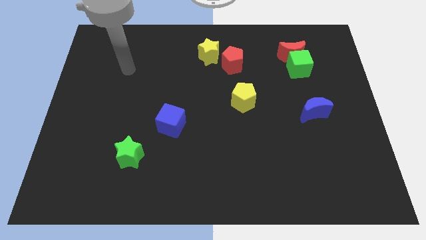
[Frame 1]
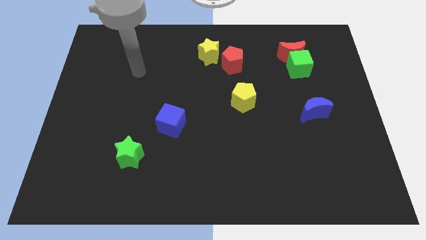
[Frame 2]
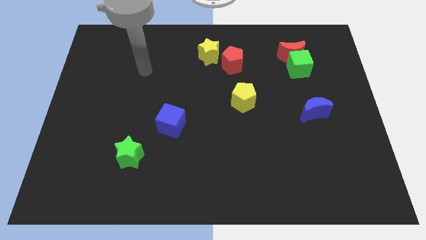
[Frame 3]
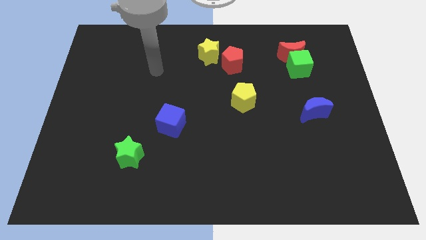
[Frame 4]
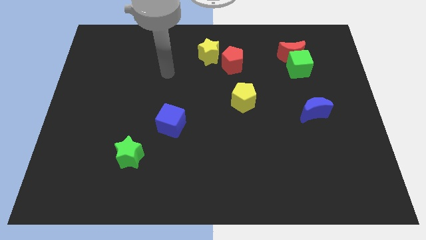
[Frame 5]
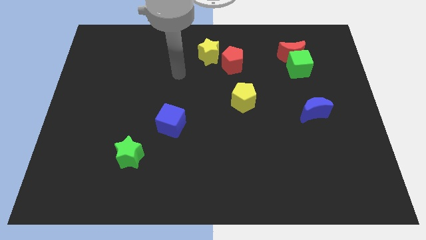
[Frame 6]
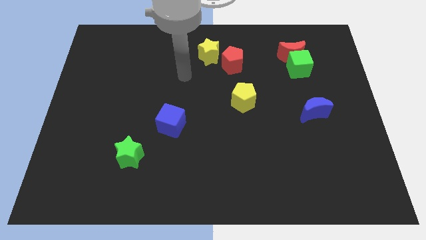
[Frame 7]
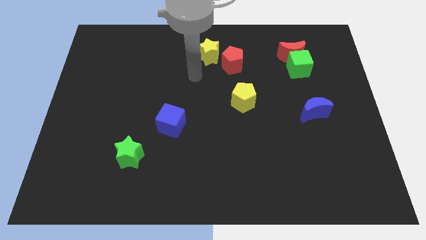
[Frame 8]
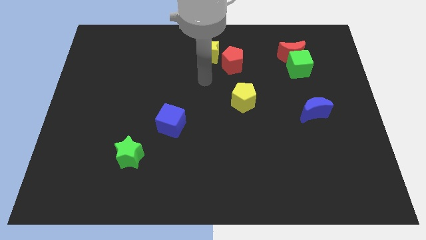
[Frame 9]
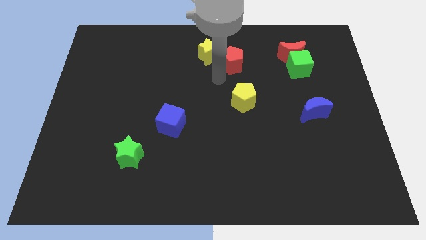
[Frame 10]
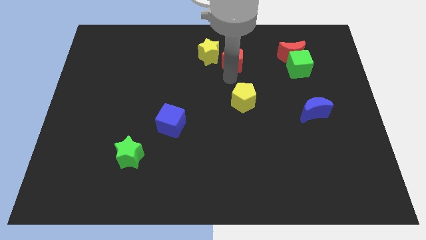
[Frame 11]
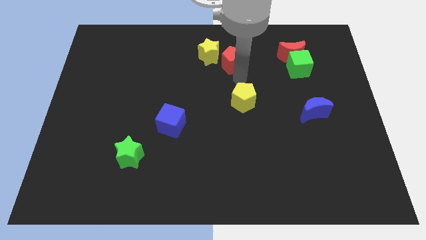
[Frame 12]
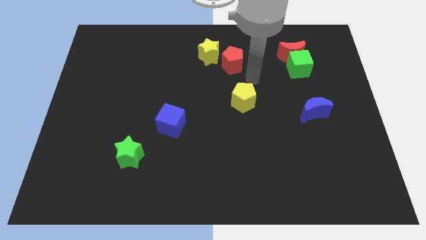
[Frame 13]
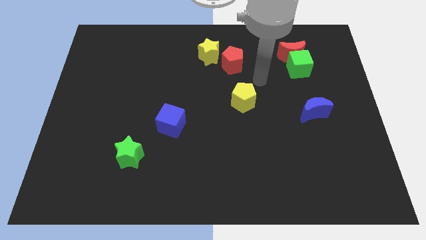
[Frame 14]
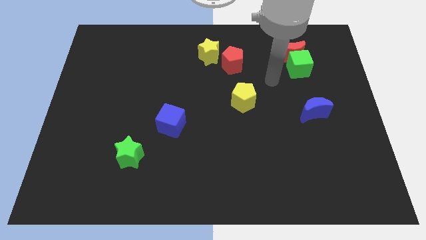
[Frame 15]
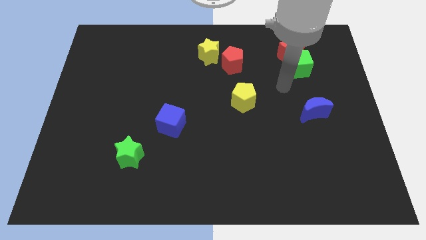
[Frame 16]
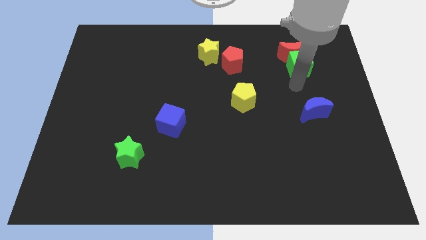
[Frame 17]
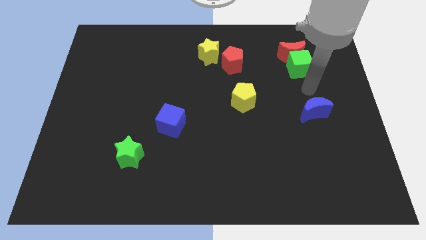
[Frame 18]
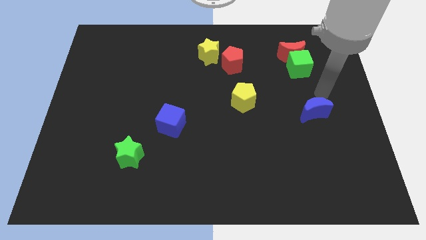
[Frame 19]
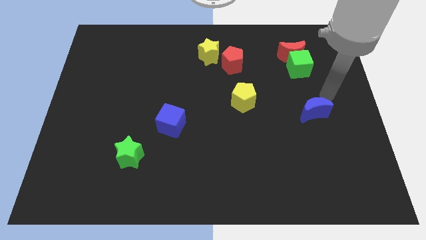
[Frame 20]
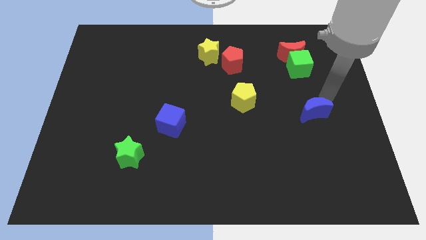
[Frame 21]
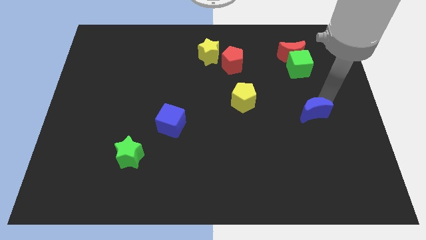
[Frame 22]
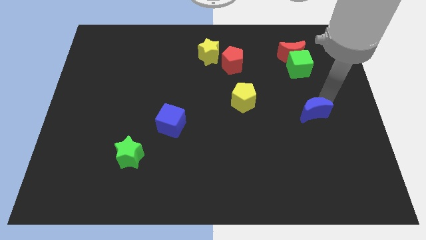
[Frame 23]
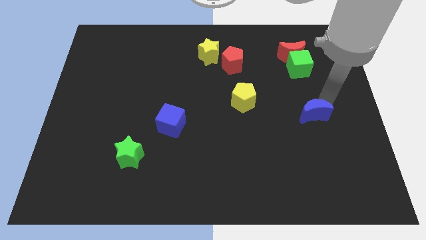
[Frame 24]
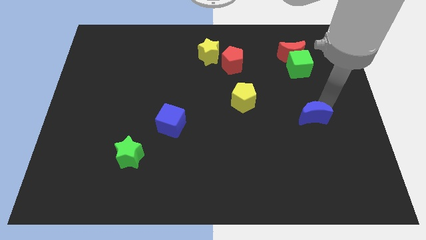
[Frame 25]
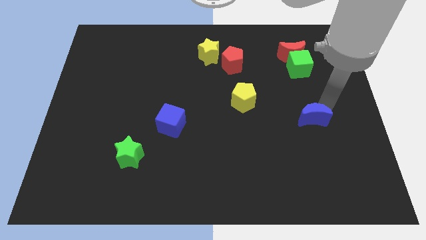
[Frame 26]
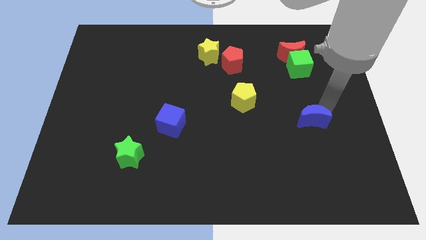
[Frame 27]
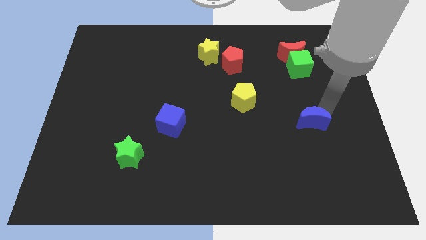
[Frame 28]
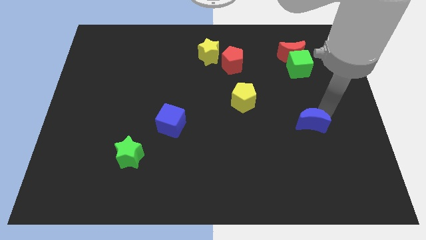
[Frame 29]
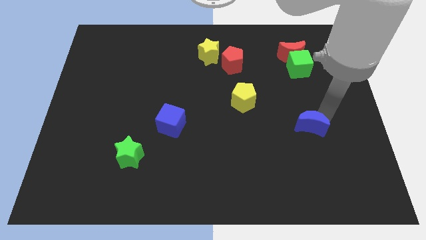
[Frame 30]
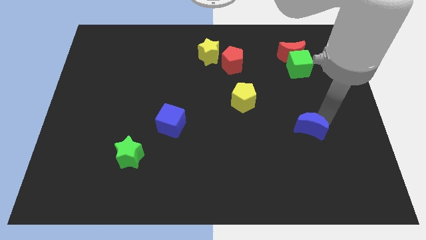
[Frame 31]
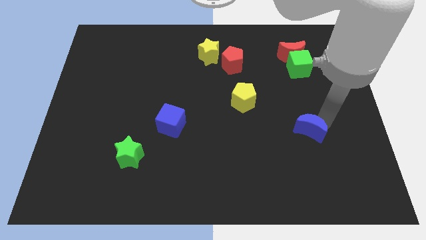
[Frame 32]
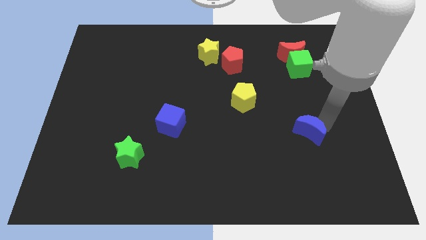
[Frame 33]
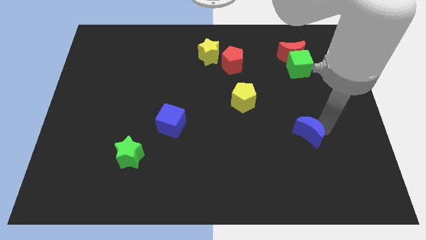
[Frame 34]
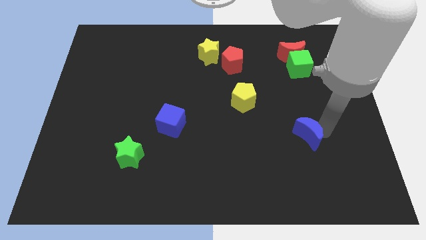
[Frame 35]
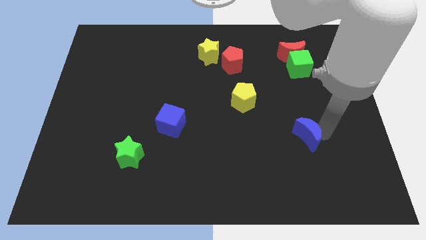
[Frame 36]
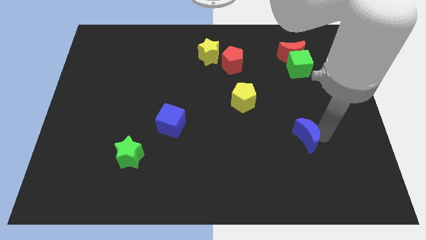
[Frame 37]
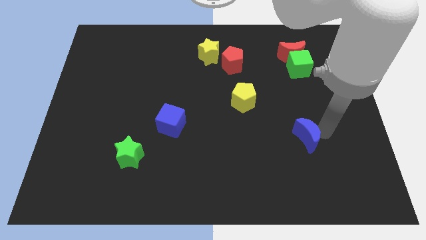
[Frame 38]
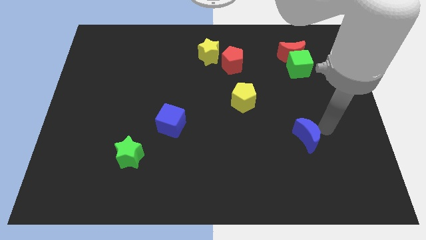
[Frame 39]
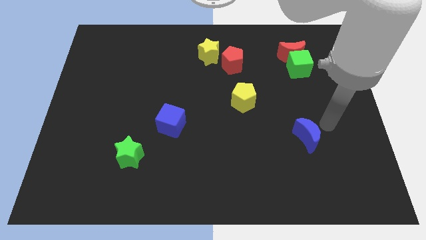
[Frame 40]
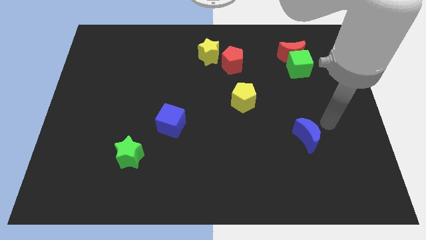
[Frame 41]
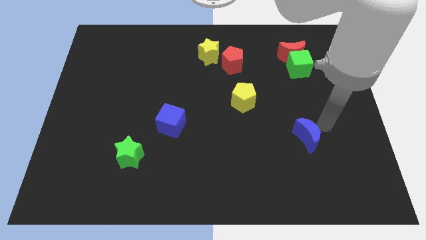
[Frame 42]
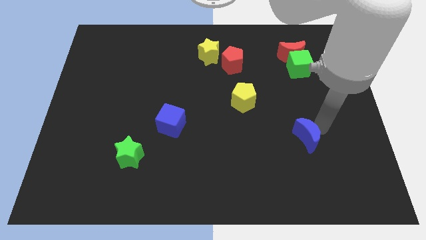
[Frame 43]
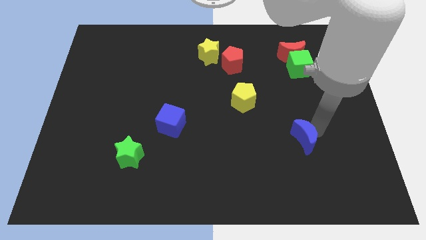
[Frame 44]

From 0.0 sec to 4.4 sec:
move the blue moon diagonally downwards and left a little bit

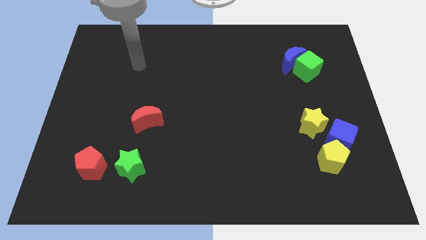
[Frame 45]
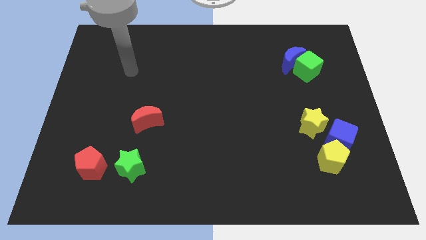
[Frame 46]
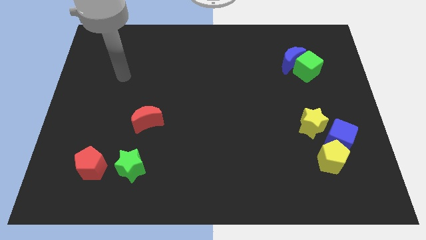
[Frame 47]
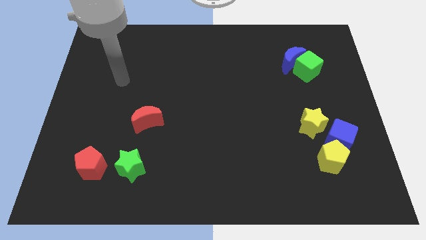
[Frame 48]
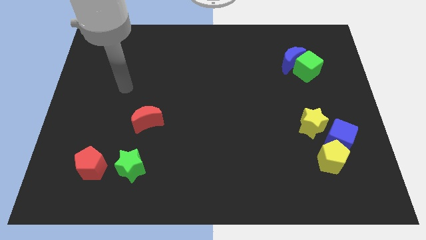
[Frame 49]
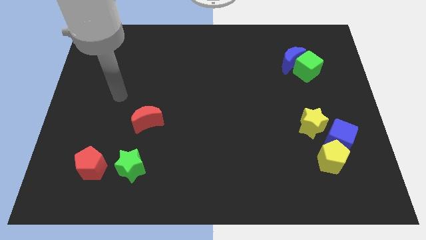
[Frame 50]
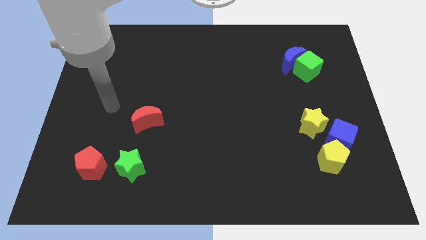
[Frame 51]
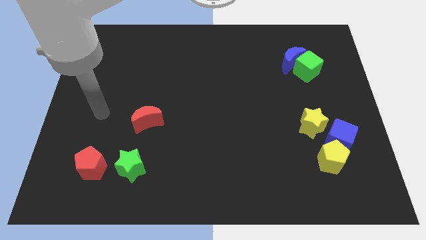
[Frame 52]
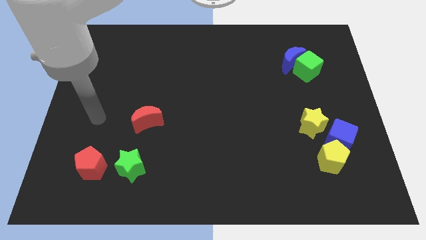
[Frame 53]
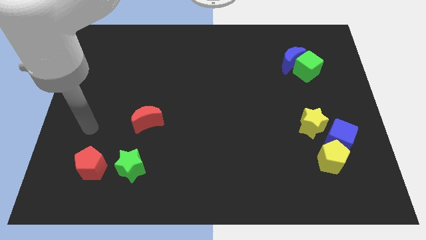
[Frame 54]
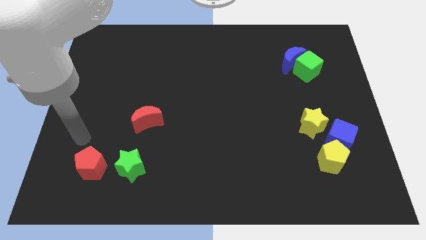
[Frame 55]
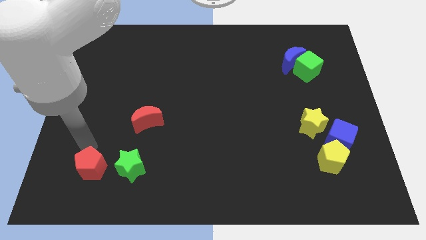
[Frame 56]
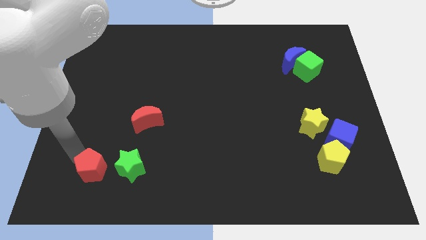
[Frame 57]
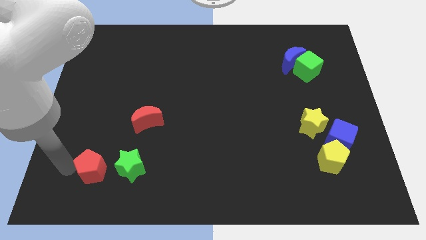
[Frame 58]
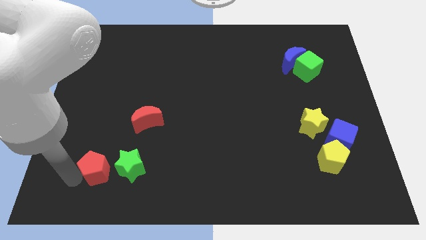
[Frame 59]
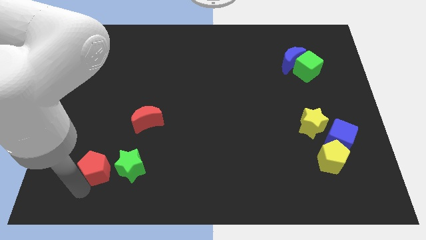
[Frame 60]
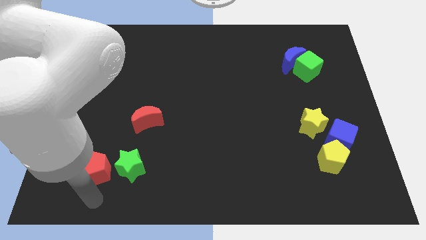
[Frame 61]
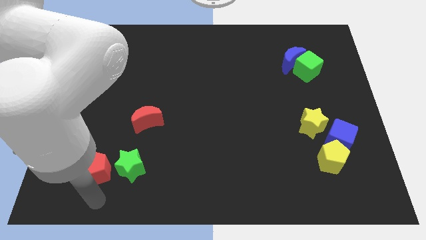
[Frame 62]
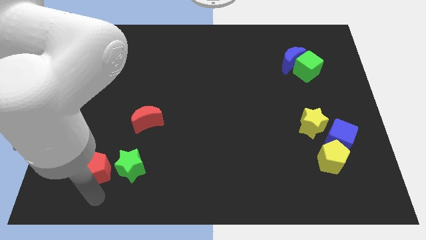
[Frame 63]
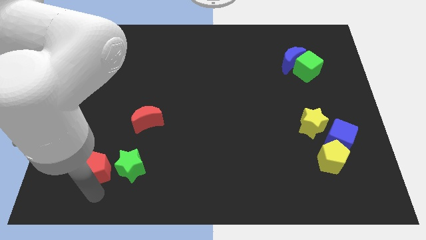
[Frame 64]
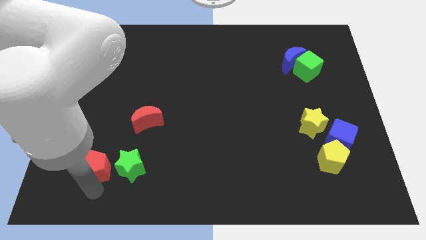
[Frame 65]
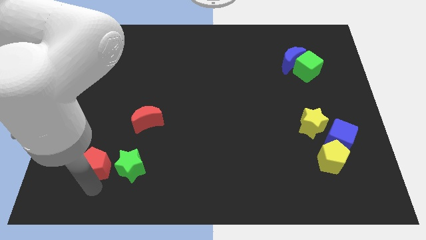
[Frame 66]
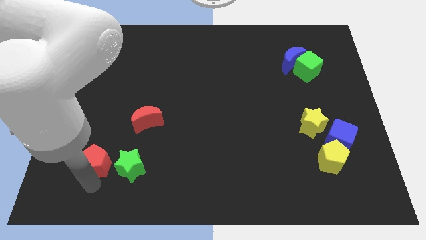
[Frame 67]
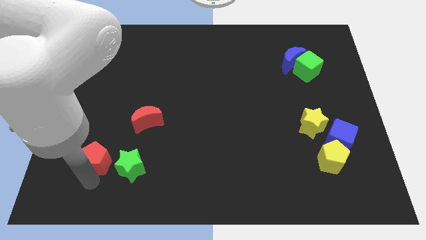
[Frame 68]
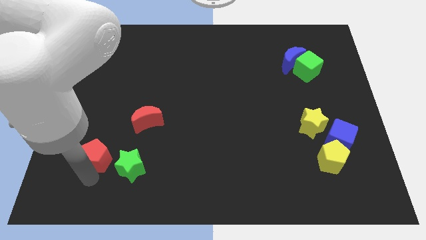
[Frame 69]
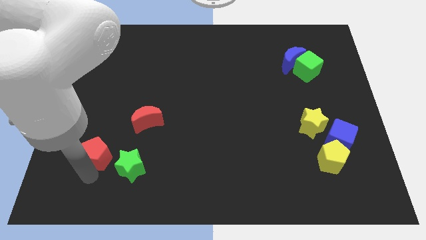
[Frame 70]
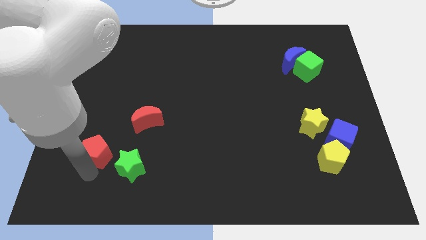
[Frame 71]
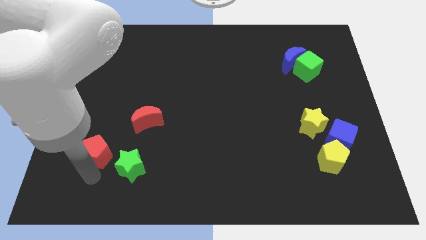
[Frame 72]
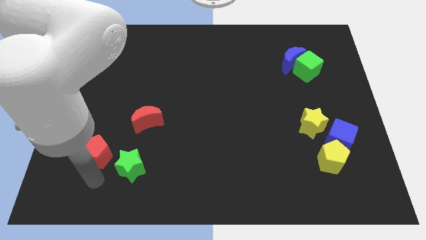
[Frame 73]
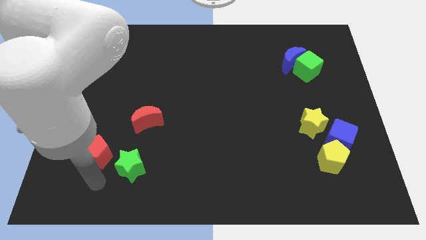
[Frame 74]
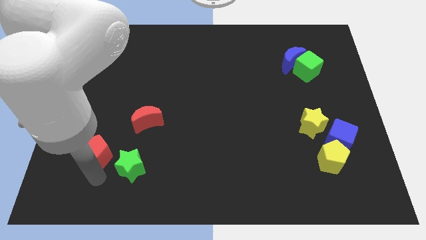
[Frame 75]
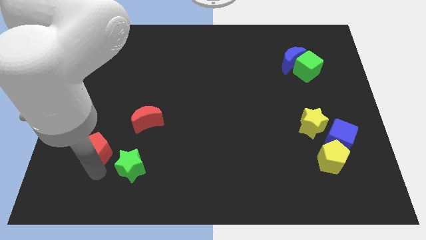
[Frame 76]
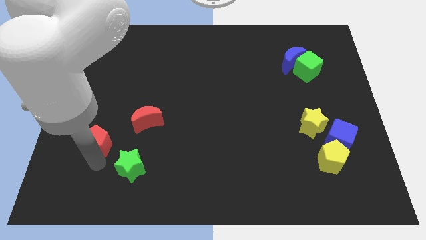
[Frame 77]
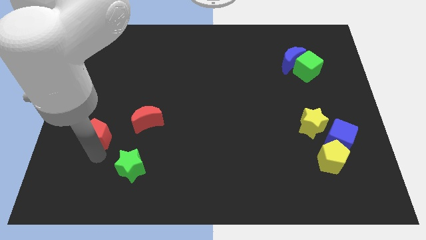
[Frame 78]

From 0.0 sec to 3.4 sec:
slide the red pentagon upwards a little bit

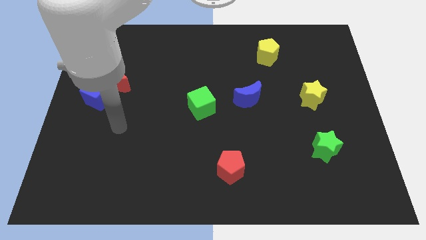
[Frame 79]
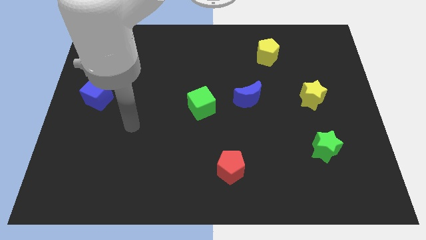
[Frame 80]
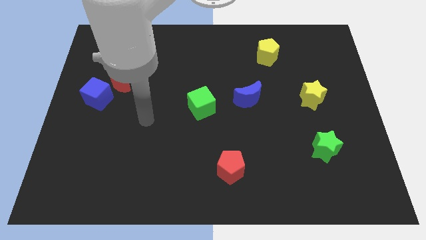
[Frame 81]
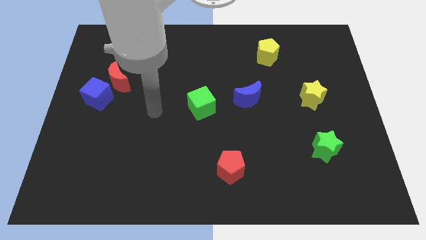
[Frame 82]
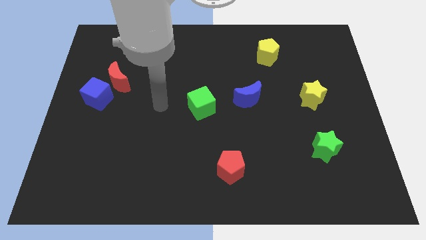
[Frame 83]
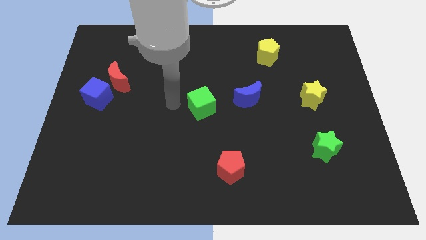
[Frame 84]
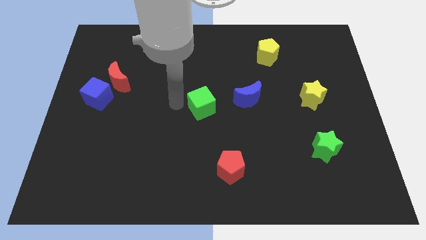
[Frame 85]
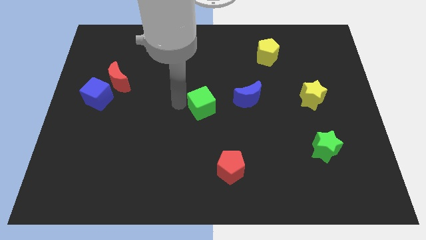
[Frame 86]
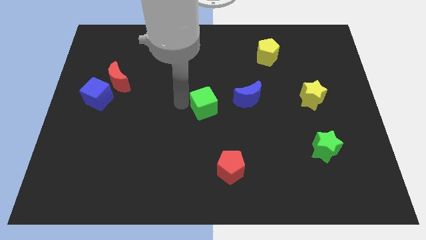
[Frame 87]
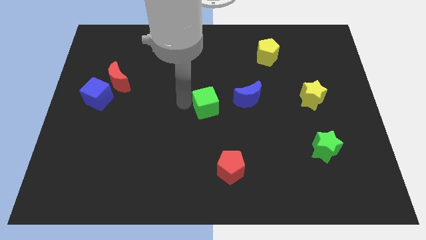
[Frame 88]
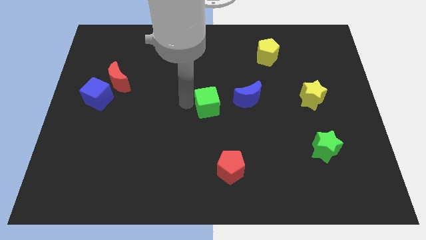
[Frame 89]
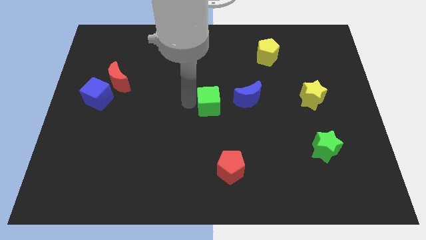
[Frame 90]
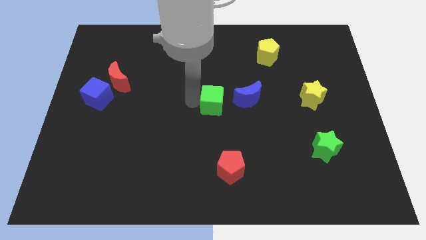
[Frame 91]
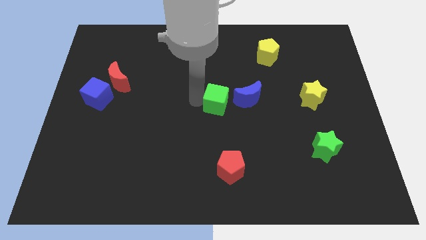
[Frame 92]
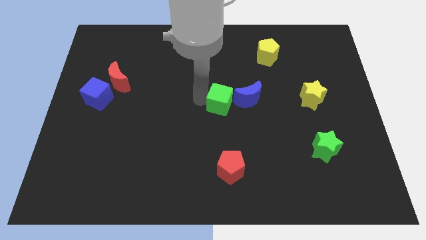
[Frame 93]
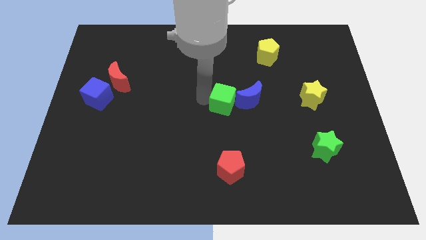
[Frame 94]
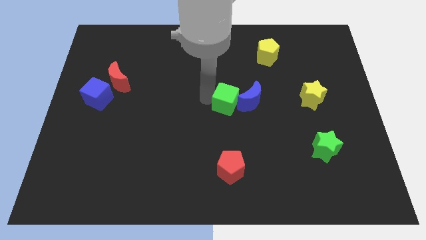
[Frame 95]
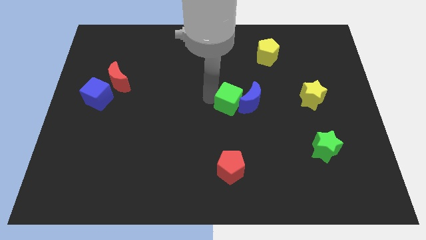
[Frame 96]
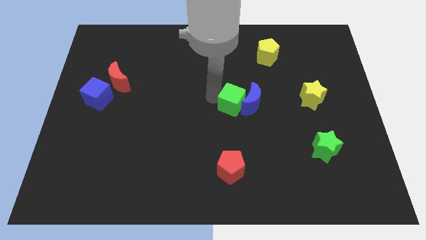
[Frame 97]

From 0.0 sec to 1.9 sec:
move the green cube to the right slightly
